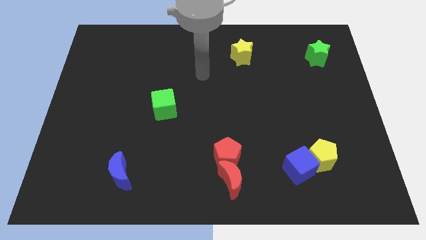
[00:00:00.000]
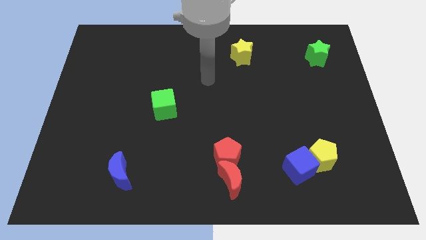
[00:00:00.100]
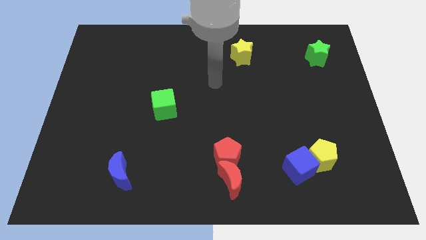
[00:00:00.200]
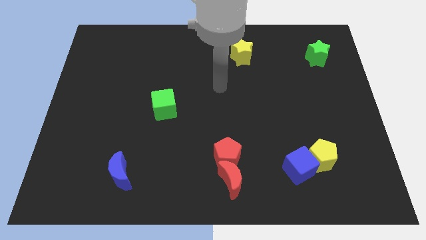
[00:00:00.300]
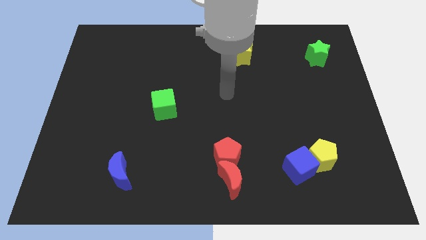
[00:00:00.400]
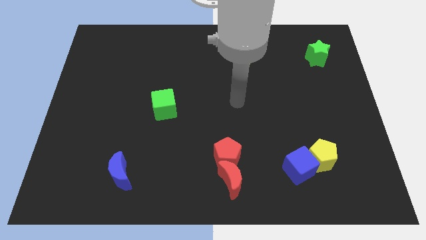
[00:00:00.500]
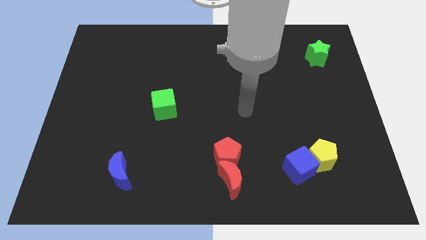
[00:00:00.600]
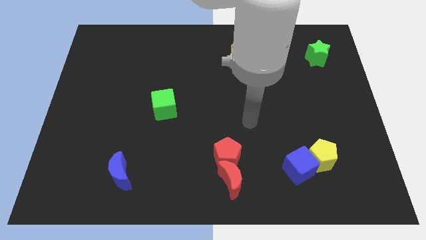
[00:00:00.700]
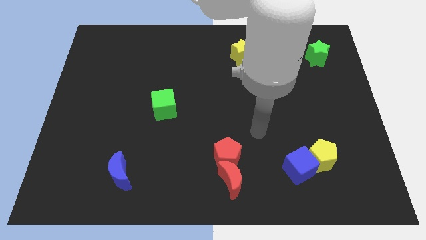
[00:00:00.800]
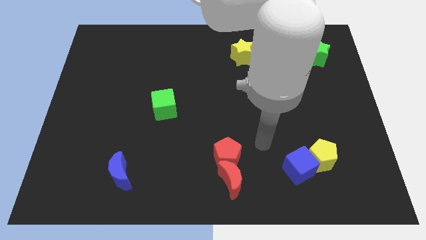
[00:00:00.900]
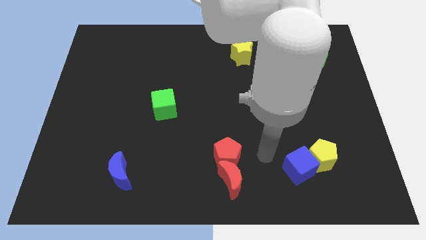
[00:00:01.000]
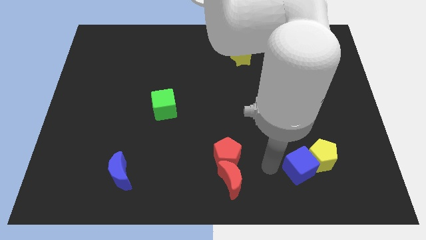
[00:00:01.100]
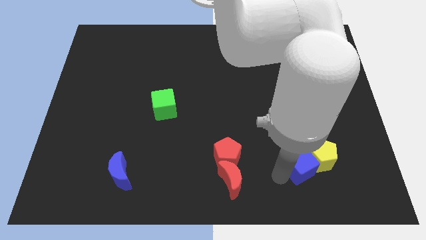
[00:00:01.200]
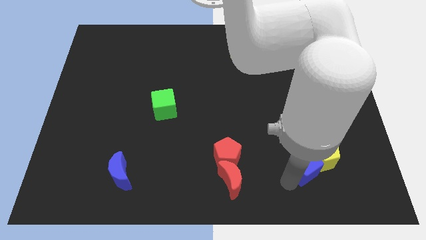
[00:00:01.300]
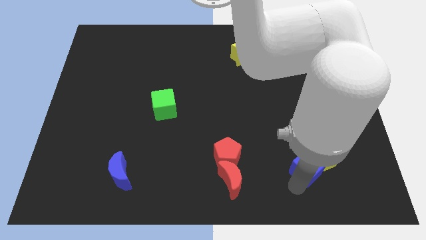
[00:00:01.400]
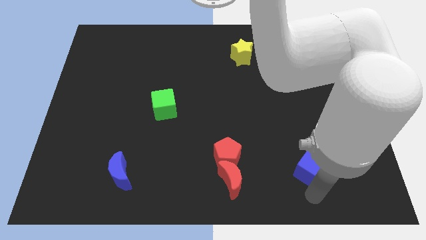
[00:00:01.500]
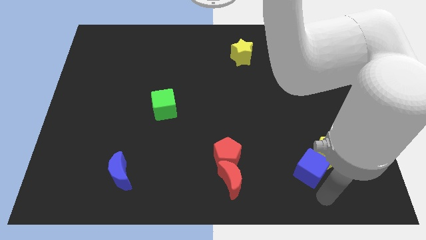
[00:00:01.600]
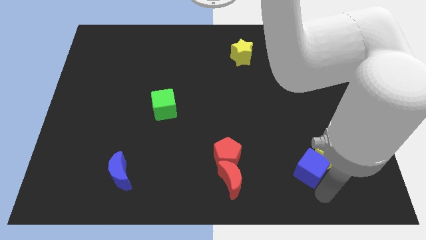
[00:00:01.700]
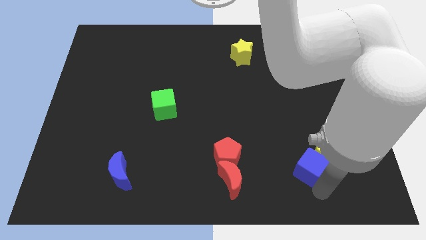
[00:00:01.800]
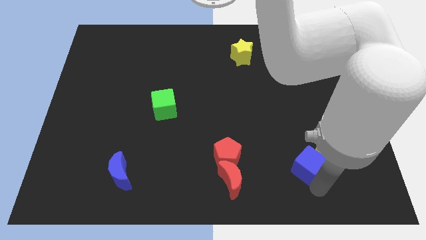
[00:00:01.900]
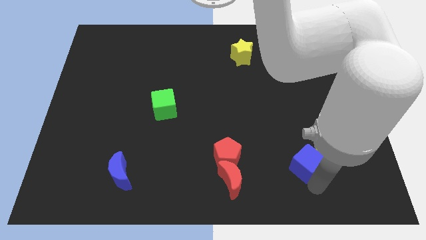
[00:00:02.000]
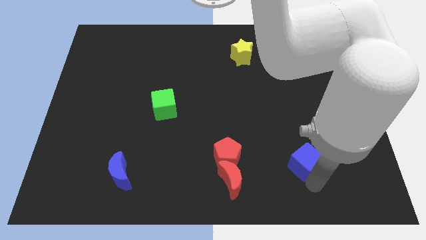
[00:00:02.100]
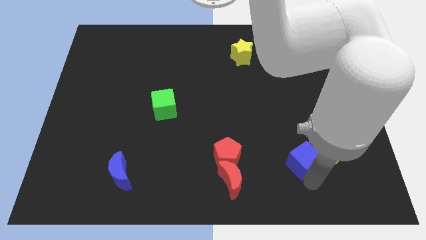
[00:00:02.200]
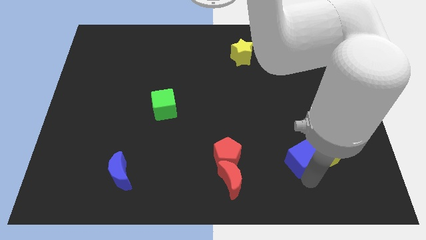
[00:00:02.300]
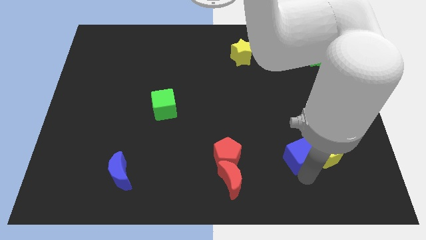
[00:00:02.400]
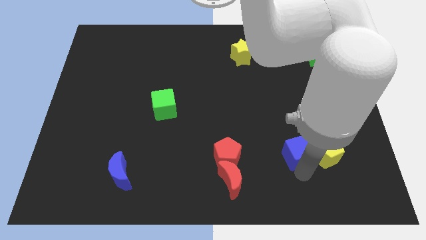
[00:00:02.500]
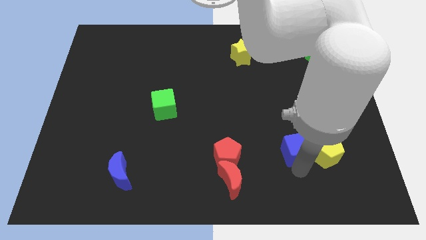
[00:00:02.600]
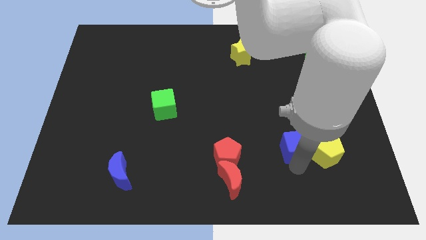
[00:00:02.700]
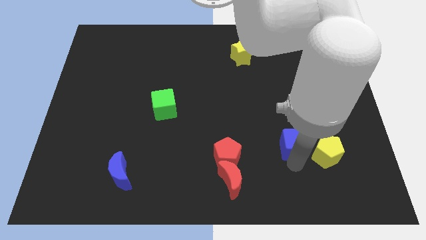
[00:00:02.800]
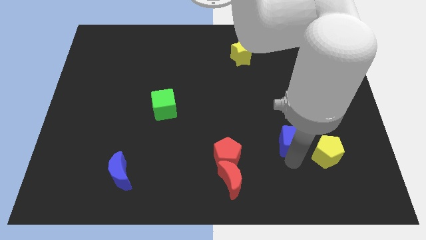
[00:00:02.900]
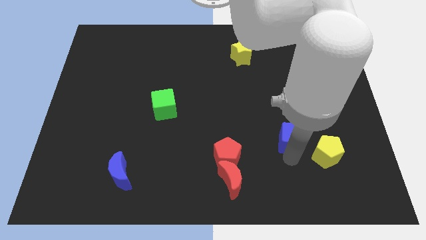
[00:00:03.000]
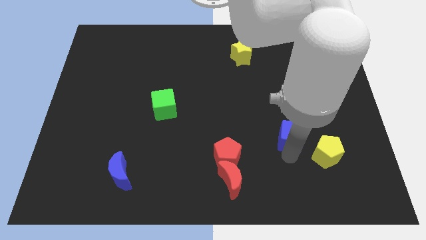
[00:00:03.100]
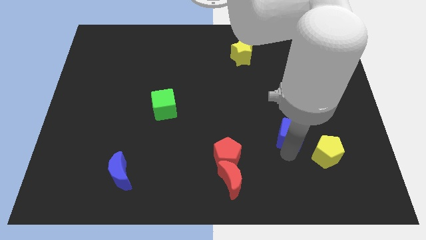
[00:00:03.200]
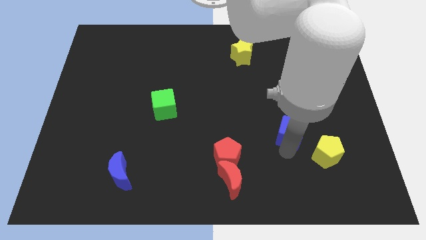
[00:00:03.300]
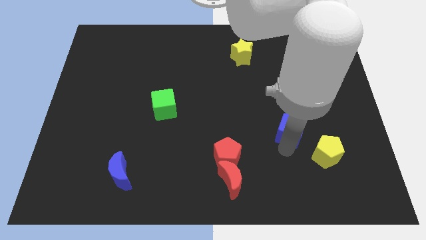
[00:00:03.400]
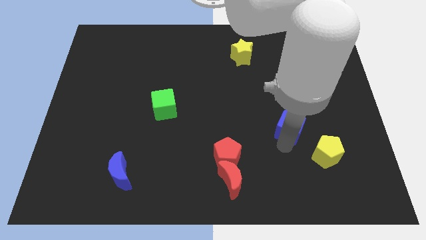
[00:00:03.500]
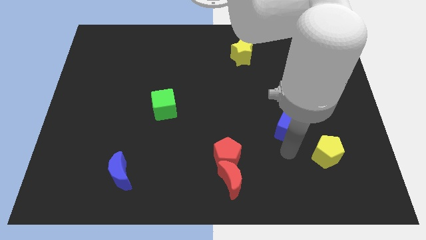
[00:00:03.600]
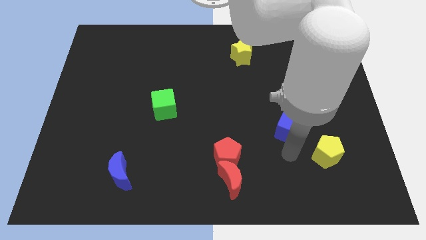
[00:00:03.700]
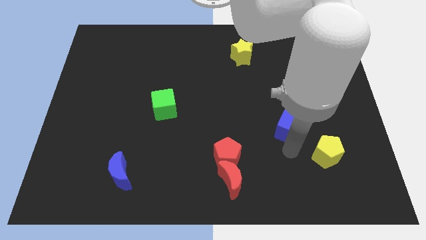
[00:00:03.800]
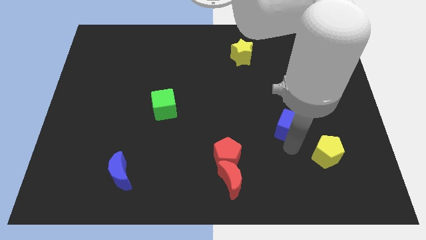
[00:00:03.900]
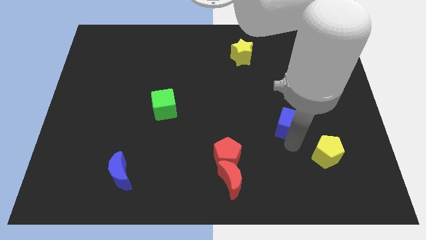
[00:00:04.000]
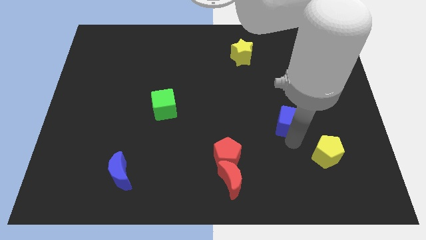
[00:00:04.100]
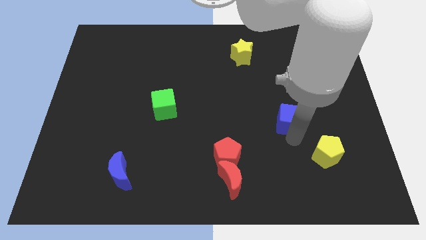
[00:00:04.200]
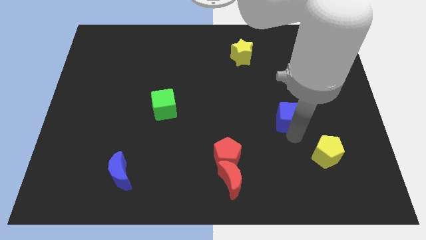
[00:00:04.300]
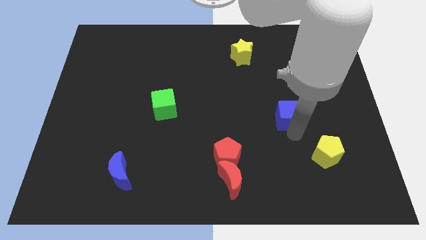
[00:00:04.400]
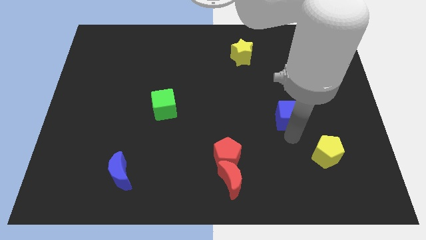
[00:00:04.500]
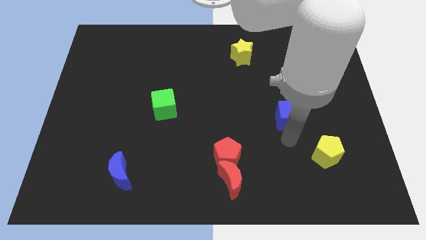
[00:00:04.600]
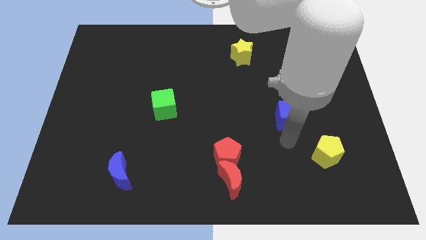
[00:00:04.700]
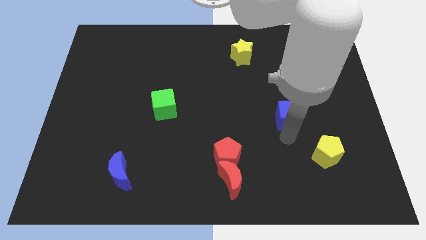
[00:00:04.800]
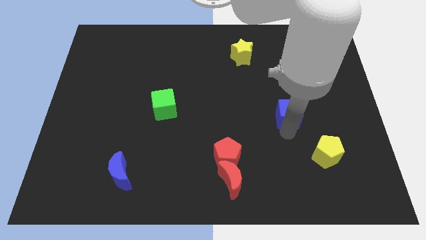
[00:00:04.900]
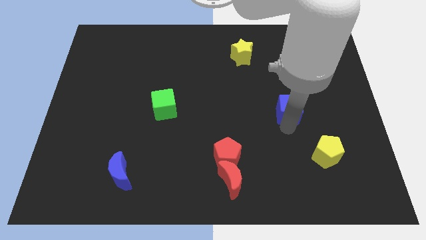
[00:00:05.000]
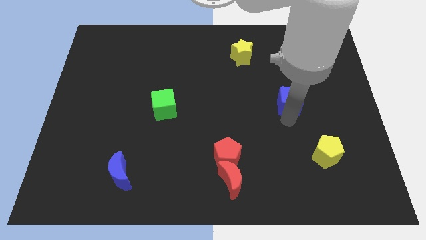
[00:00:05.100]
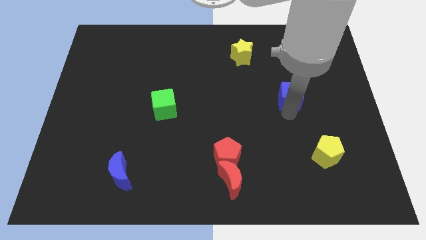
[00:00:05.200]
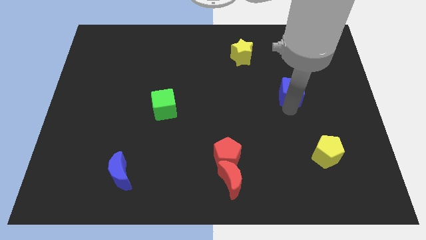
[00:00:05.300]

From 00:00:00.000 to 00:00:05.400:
push the blue cube up

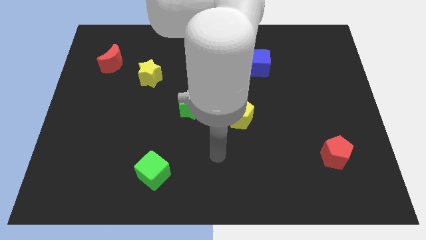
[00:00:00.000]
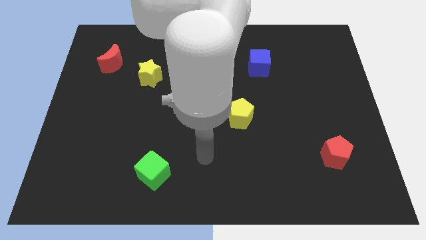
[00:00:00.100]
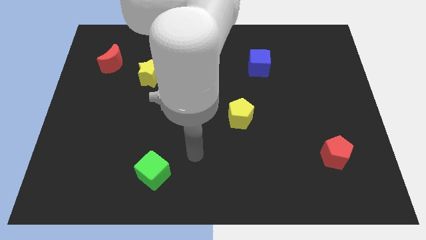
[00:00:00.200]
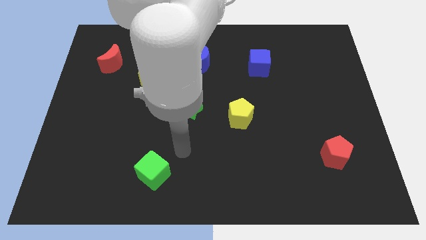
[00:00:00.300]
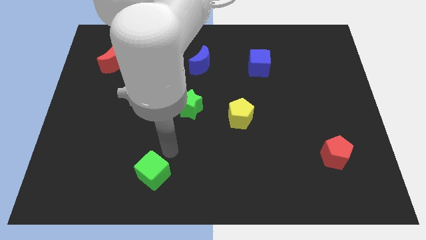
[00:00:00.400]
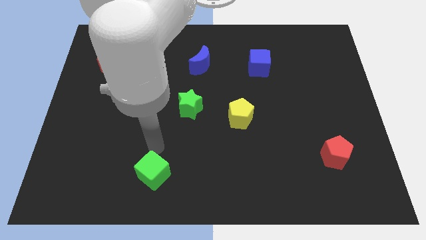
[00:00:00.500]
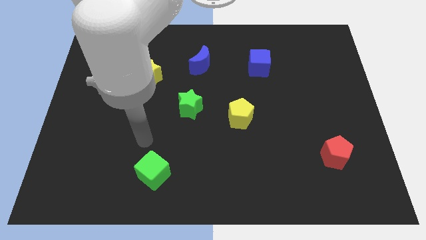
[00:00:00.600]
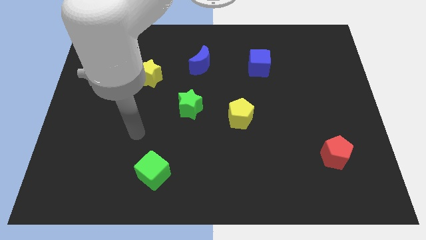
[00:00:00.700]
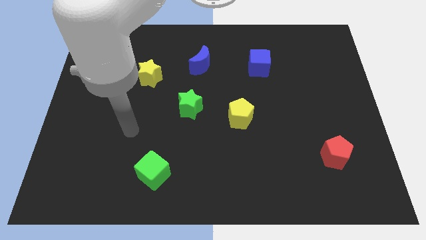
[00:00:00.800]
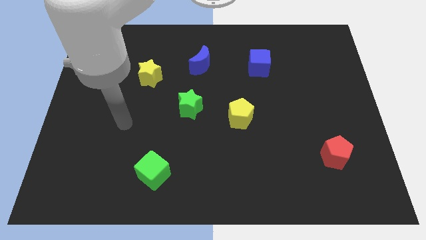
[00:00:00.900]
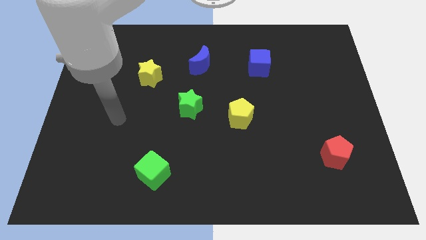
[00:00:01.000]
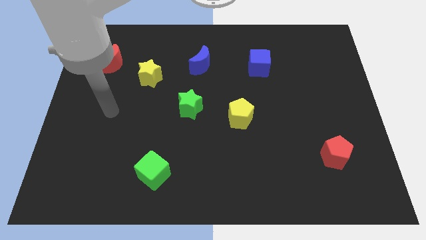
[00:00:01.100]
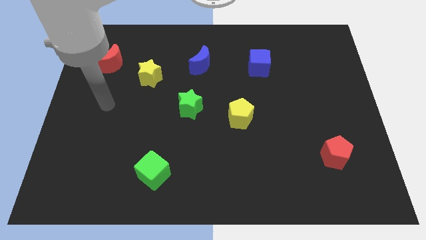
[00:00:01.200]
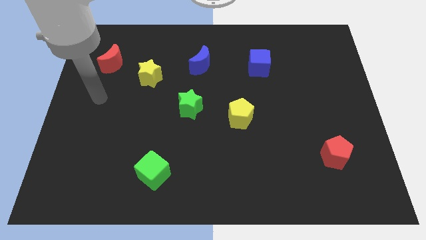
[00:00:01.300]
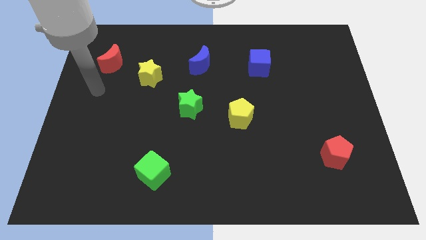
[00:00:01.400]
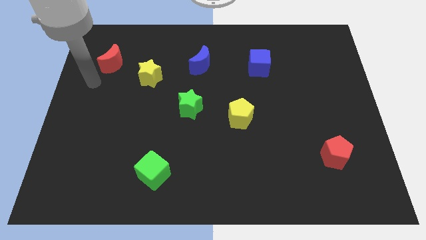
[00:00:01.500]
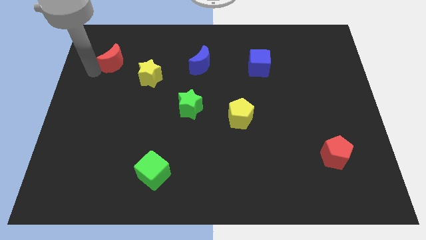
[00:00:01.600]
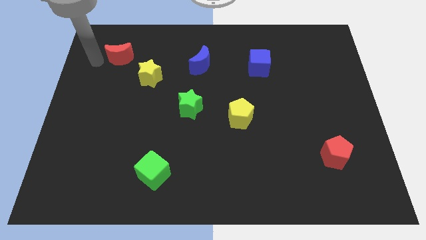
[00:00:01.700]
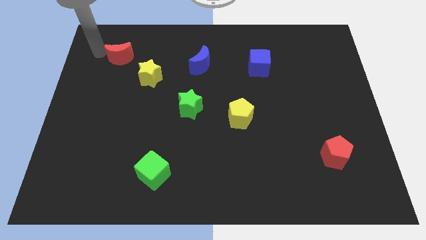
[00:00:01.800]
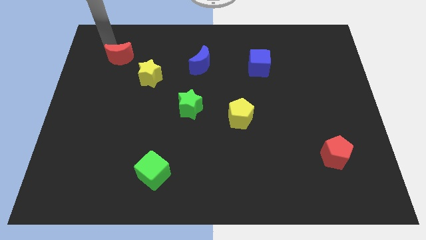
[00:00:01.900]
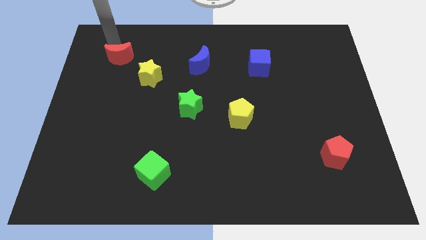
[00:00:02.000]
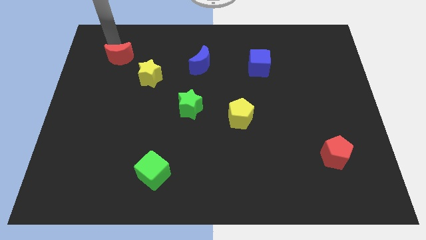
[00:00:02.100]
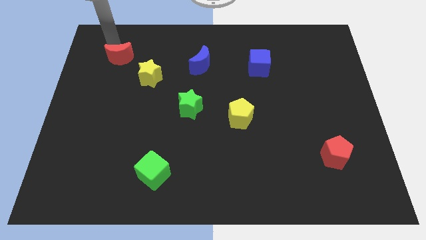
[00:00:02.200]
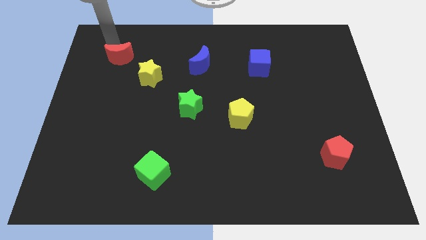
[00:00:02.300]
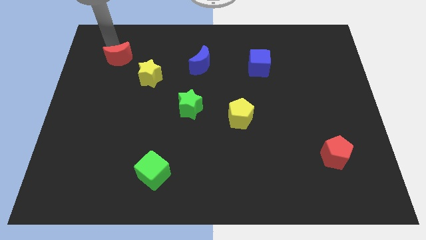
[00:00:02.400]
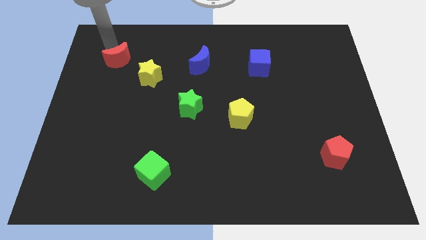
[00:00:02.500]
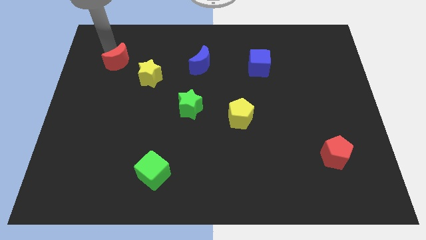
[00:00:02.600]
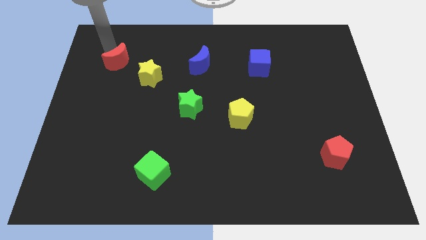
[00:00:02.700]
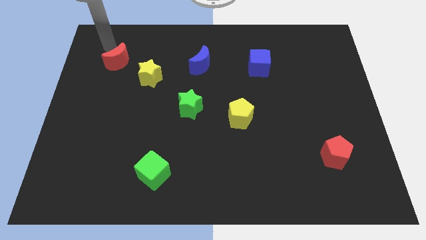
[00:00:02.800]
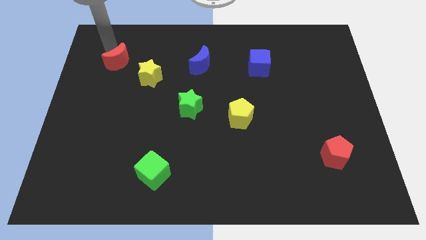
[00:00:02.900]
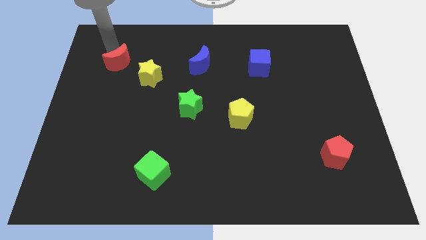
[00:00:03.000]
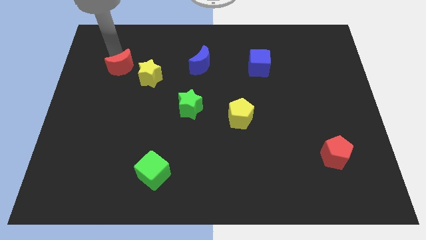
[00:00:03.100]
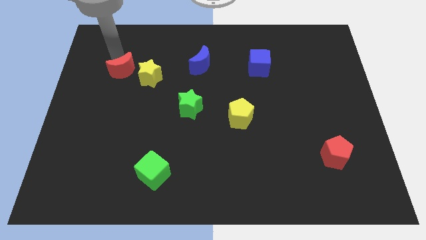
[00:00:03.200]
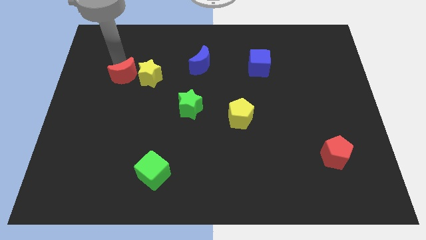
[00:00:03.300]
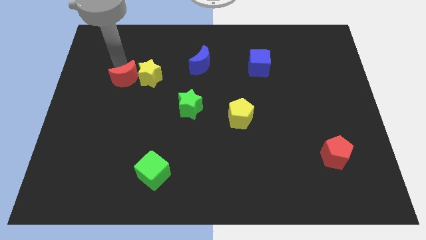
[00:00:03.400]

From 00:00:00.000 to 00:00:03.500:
slightly move the red moon downwards and right diagonally
